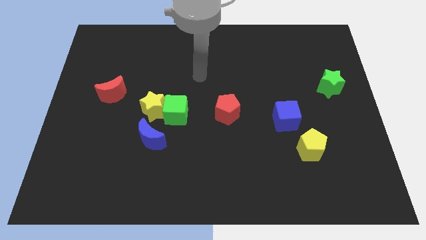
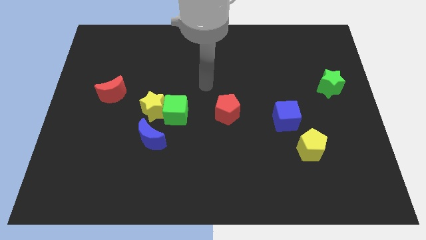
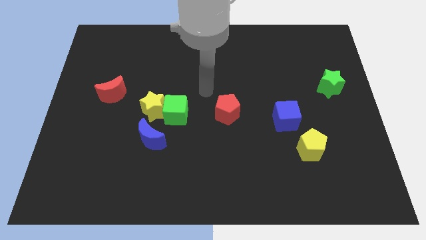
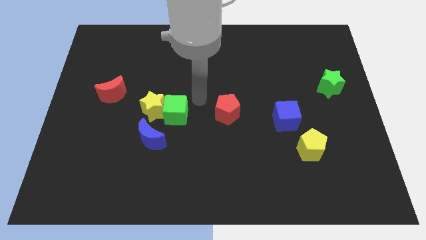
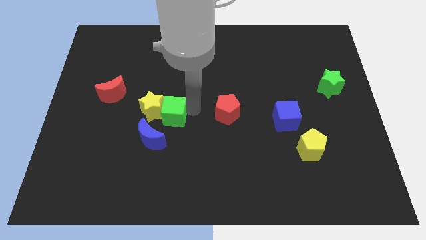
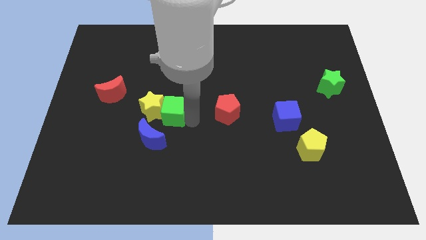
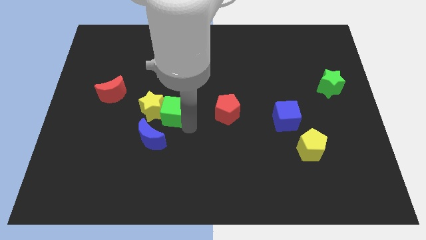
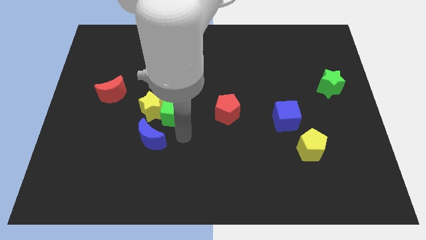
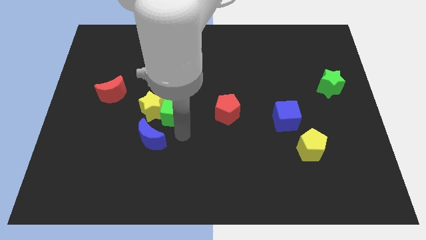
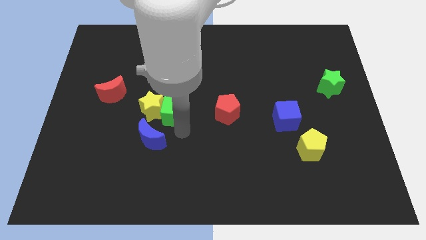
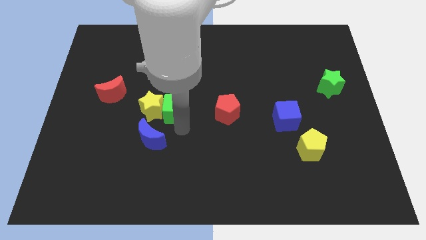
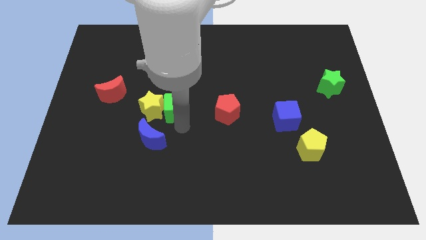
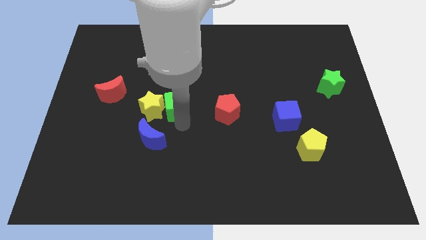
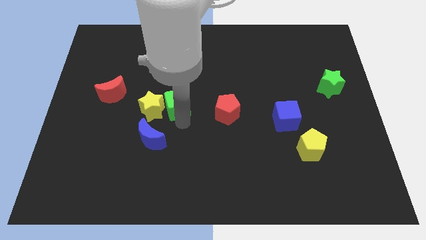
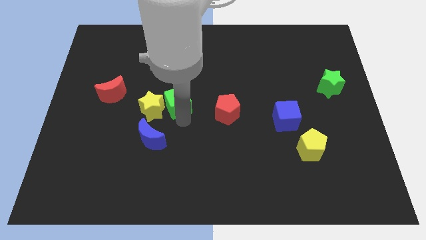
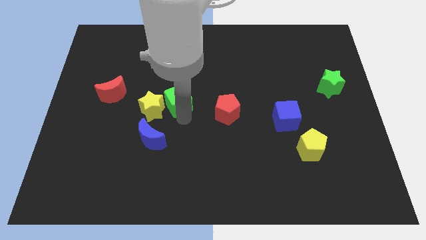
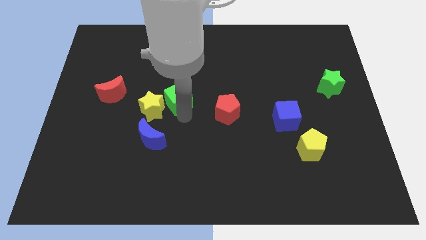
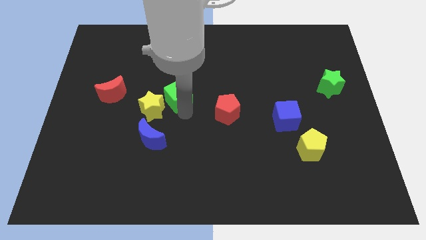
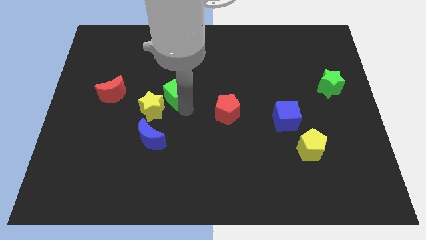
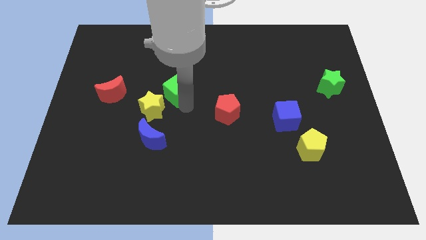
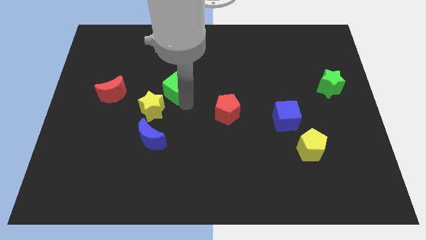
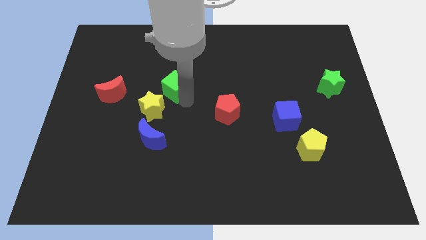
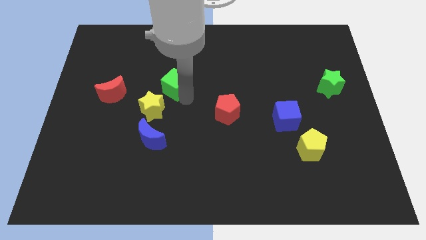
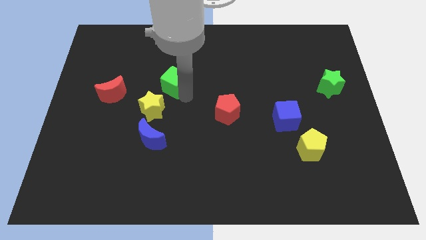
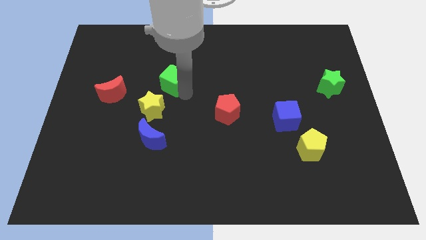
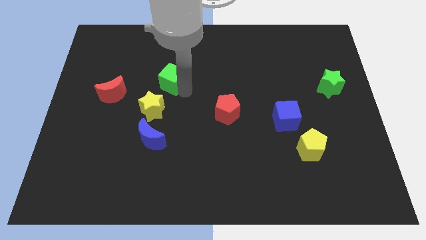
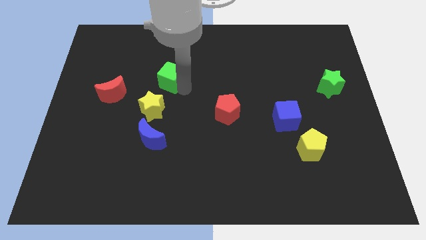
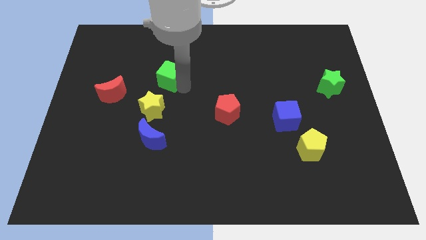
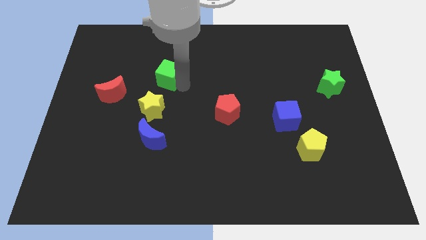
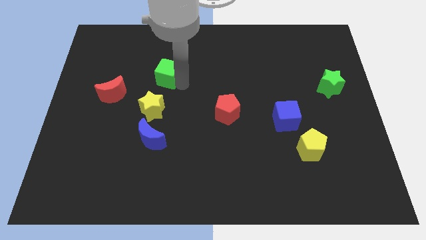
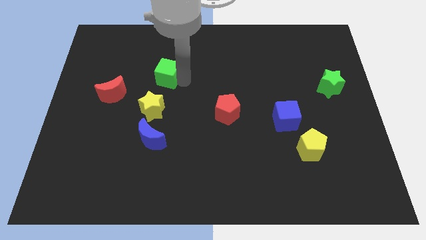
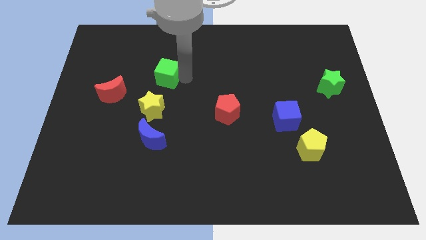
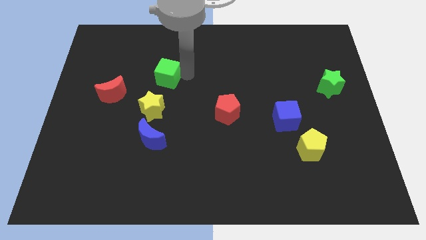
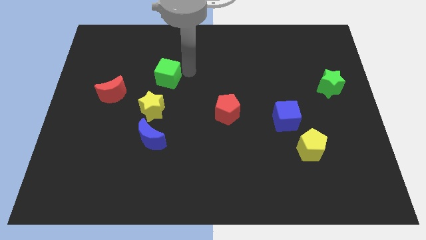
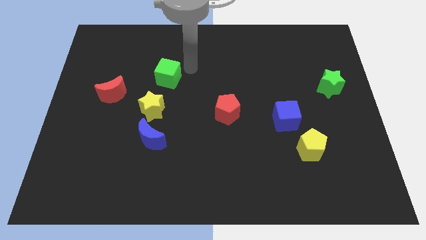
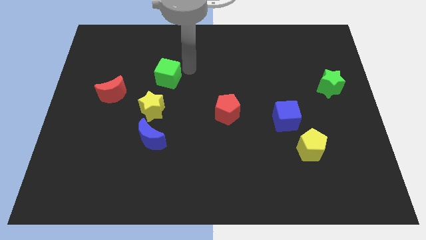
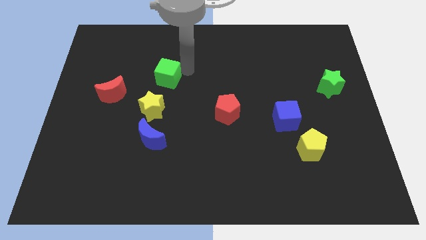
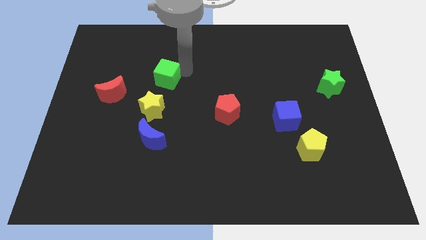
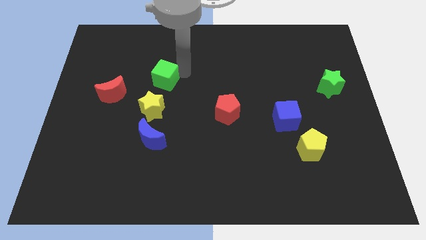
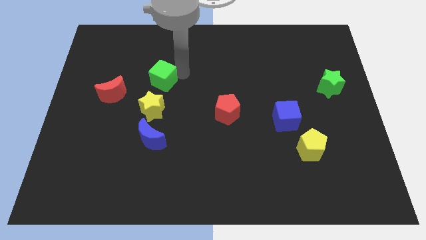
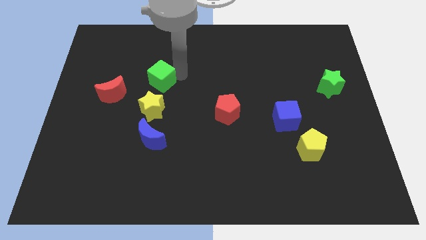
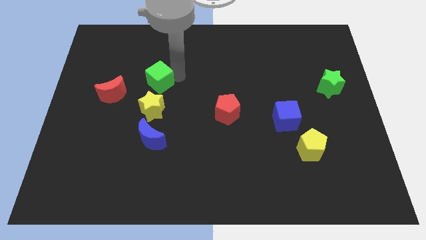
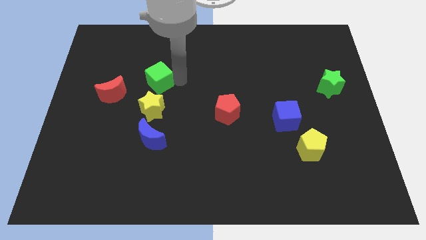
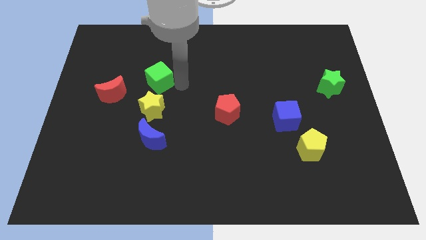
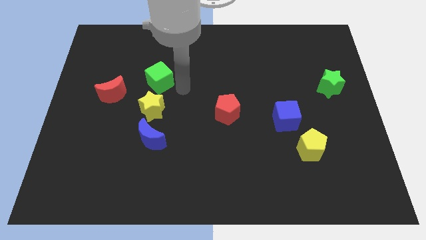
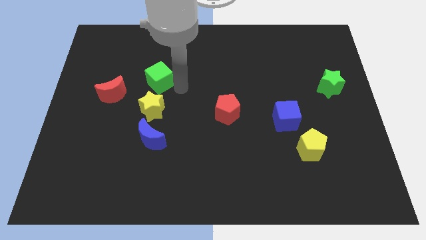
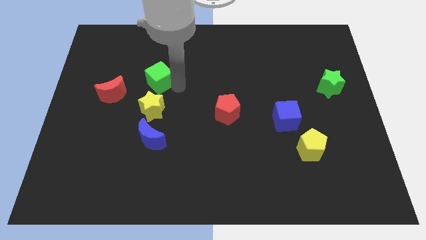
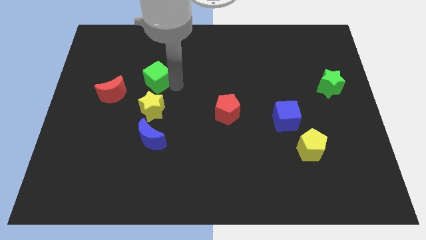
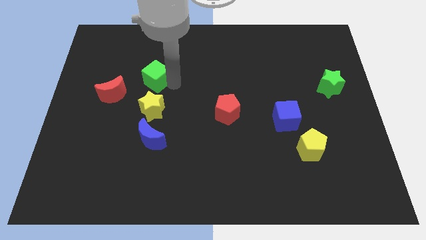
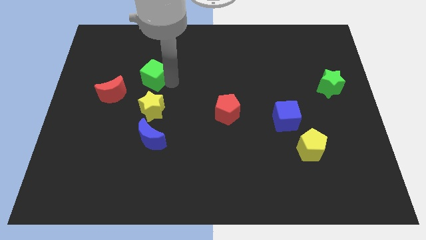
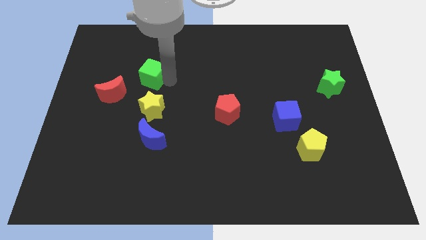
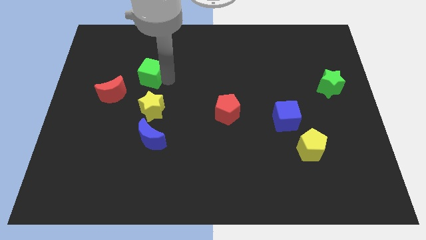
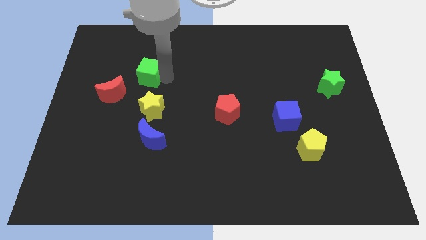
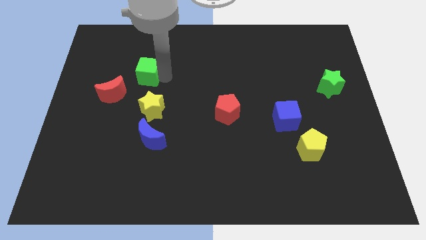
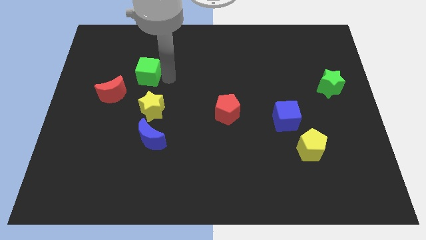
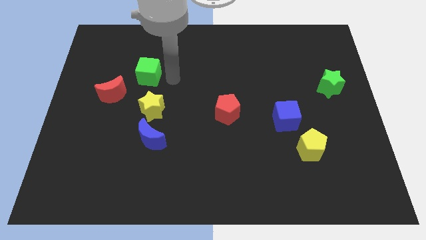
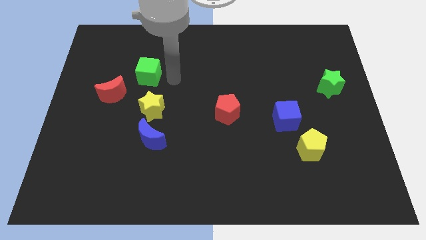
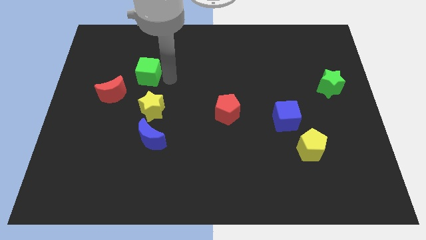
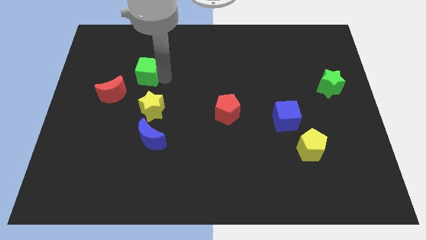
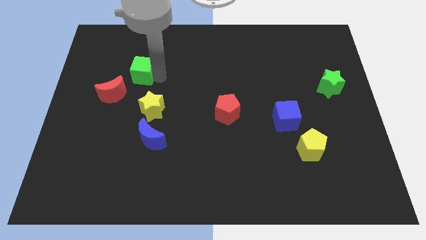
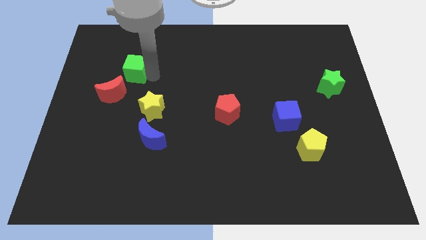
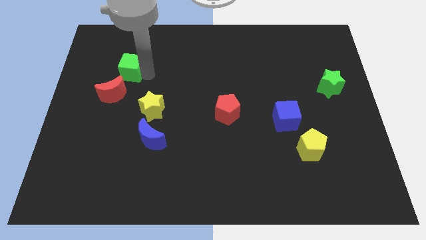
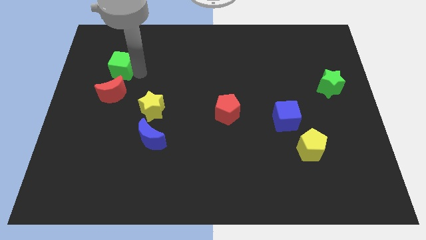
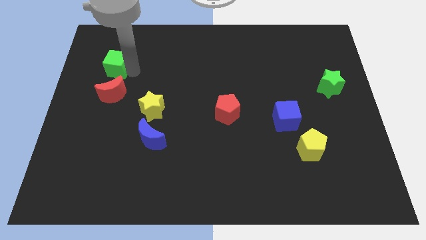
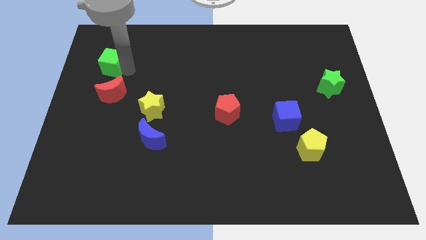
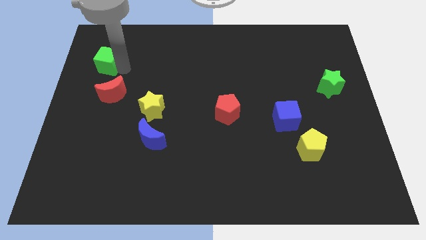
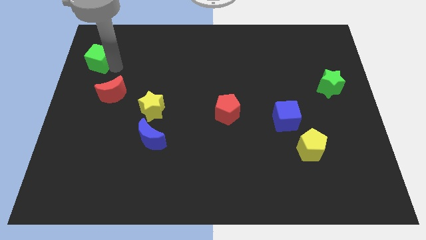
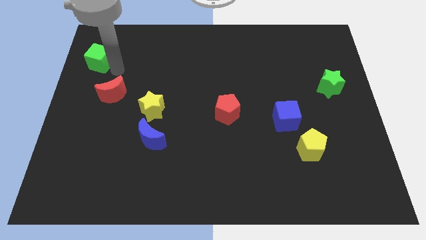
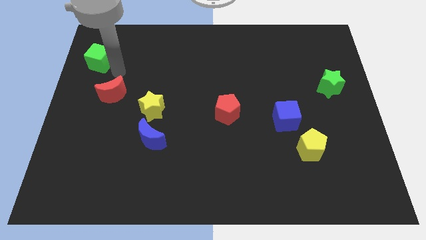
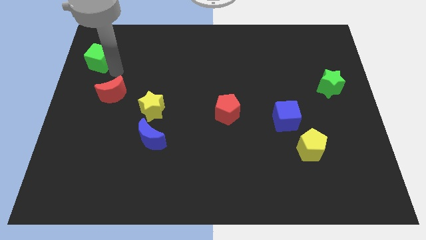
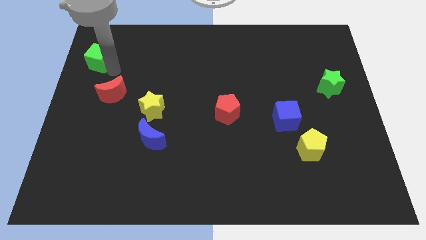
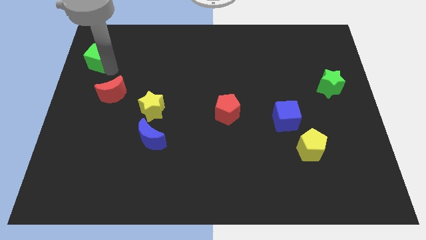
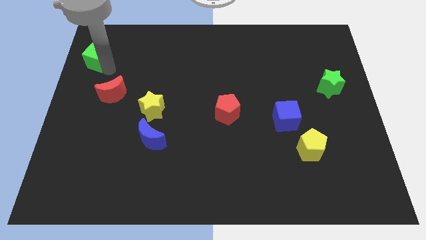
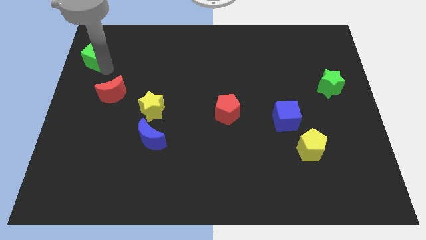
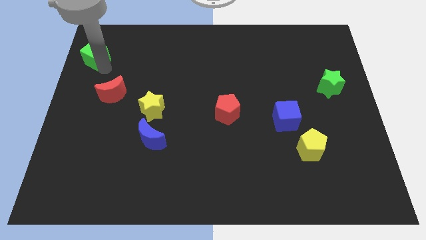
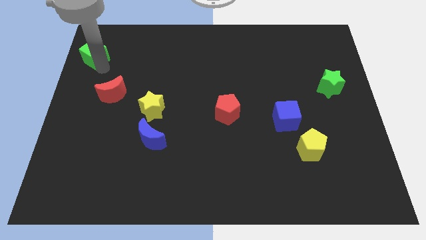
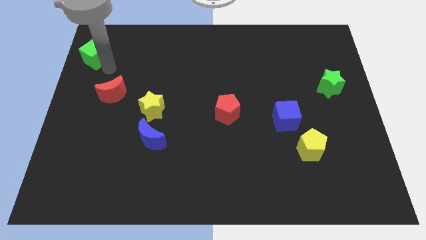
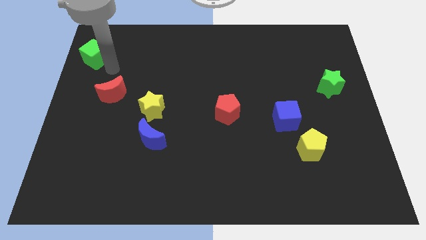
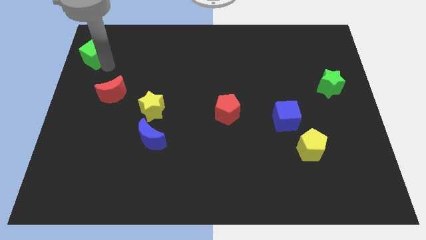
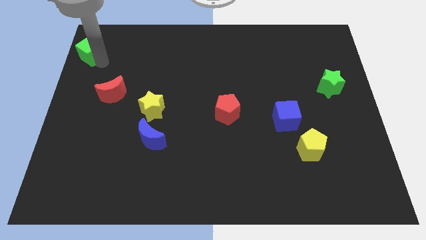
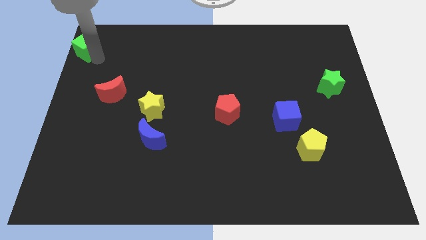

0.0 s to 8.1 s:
move the green cube to the top left of the board

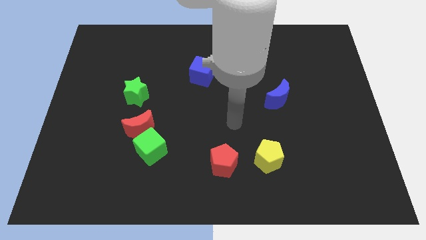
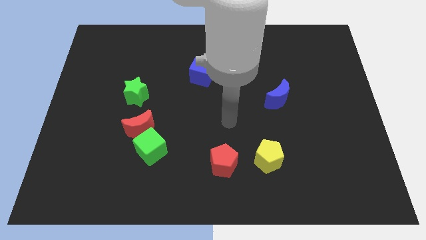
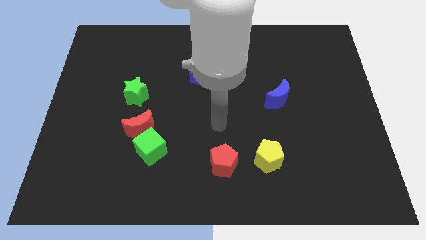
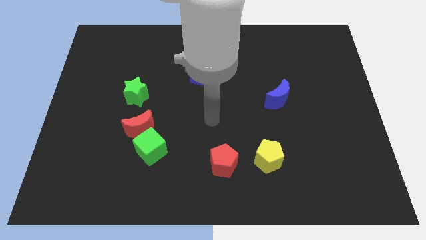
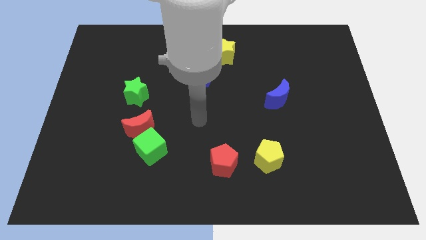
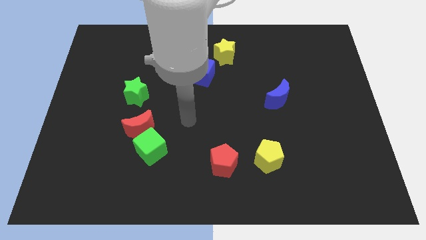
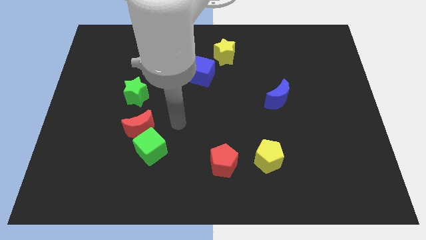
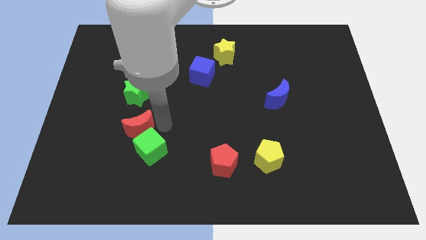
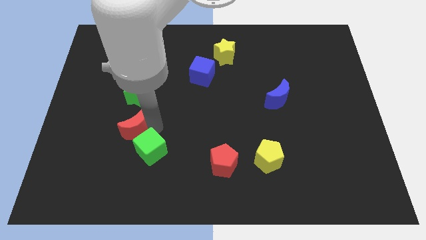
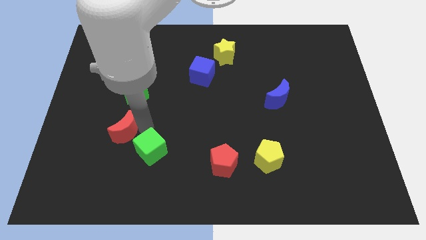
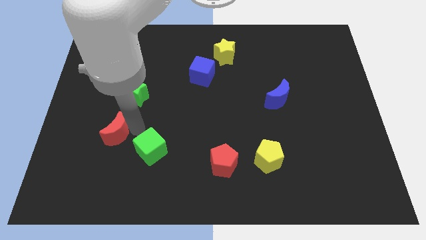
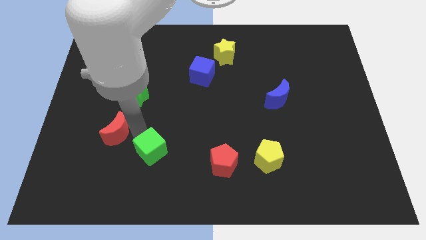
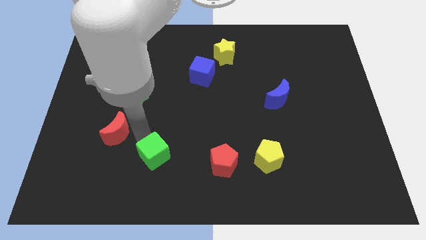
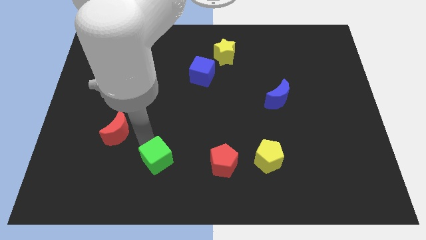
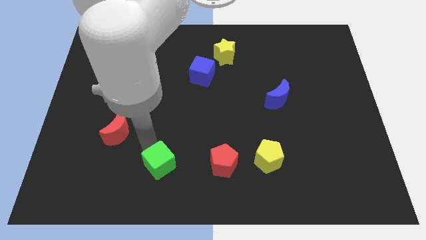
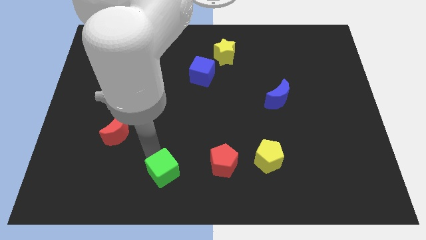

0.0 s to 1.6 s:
push the green cube to the bottom
